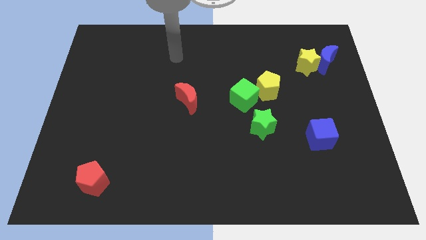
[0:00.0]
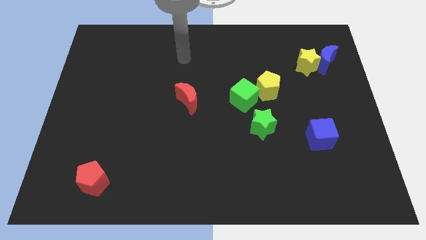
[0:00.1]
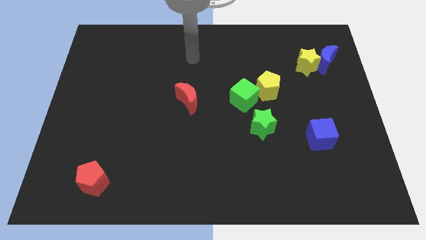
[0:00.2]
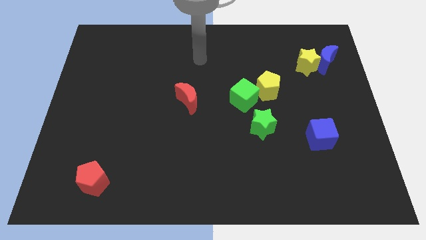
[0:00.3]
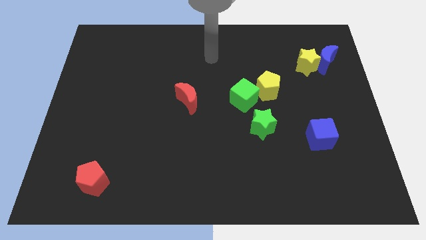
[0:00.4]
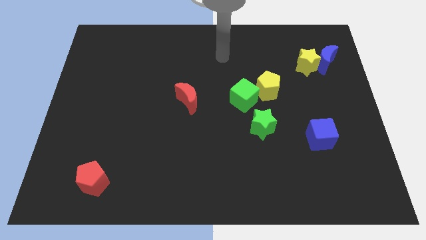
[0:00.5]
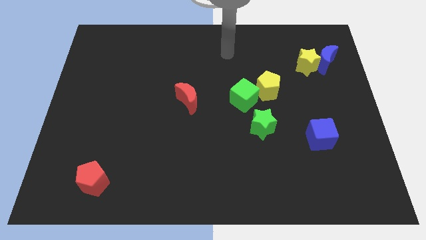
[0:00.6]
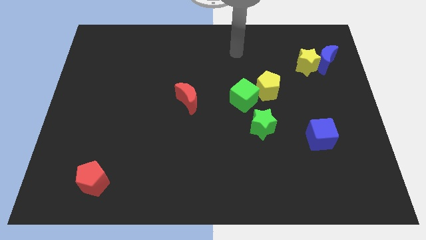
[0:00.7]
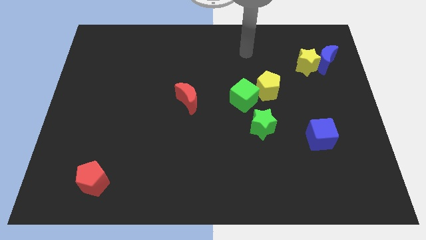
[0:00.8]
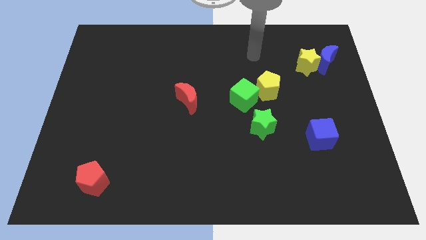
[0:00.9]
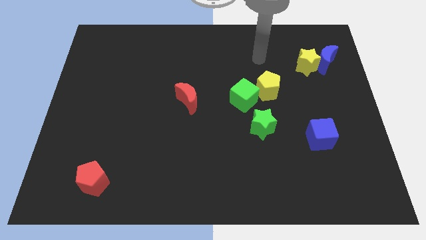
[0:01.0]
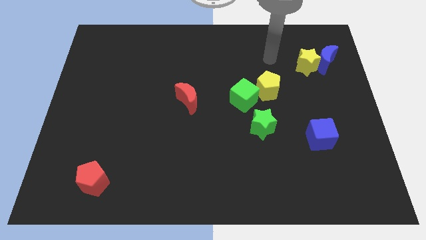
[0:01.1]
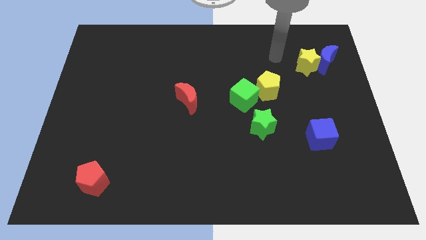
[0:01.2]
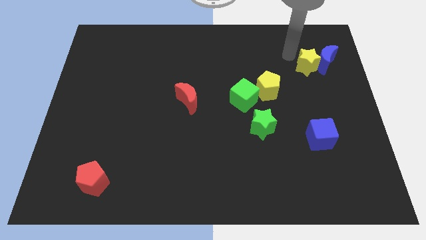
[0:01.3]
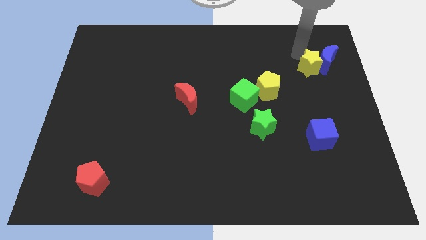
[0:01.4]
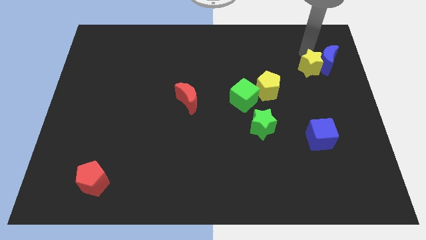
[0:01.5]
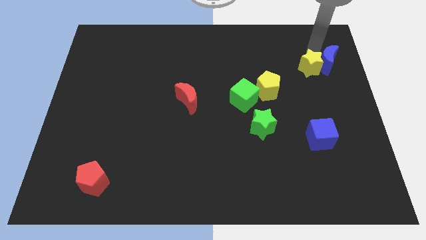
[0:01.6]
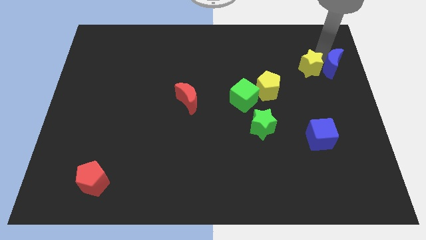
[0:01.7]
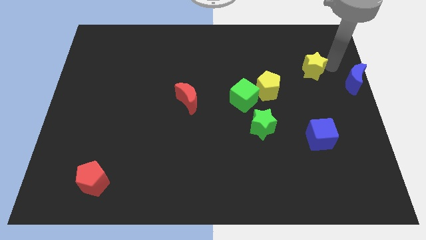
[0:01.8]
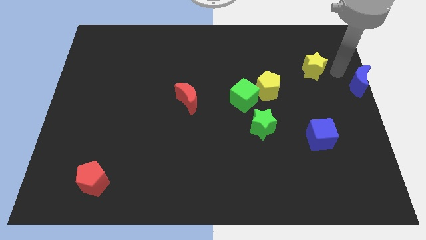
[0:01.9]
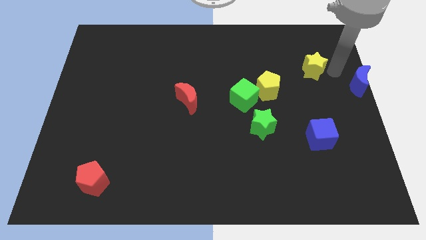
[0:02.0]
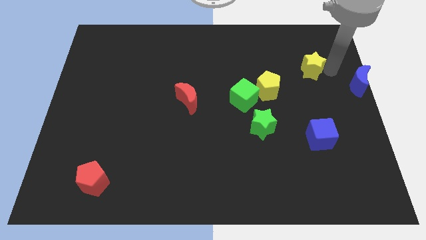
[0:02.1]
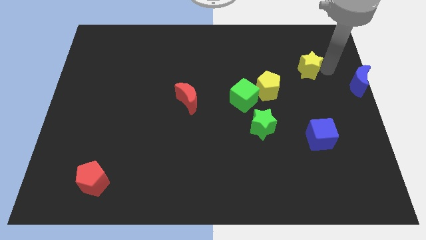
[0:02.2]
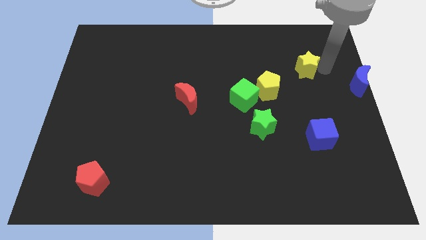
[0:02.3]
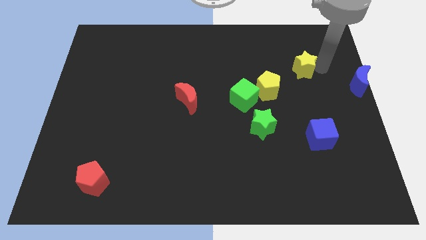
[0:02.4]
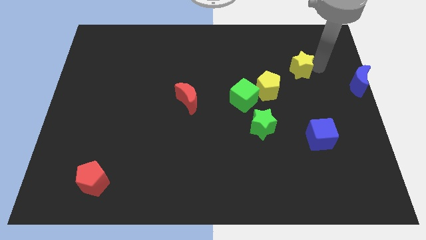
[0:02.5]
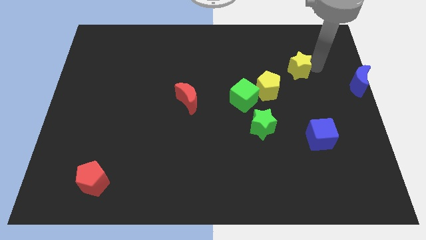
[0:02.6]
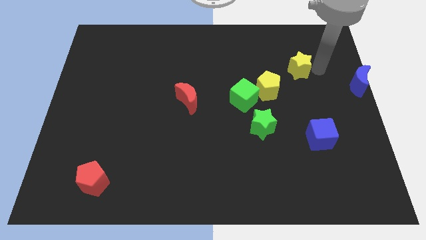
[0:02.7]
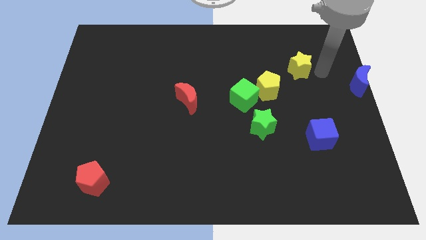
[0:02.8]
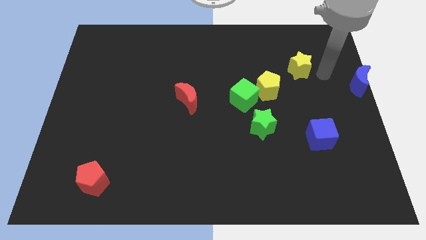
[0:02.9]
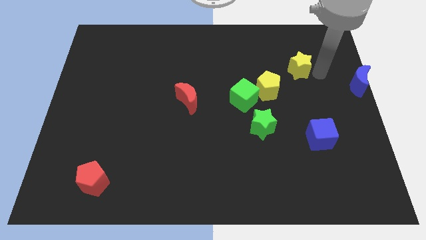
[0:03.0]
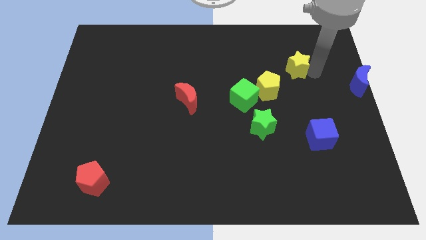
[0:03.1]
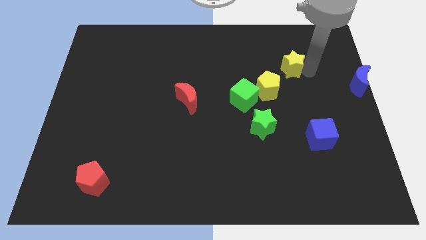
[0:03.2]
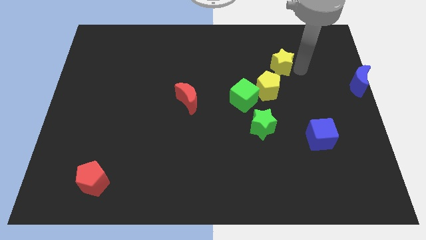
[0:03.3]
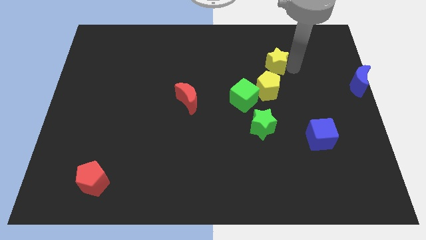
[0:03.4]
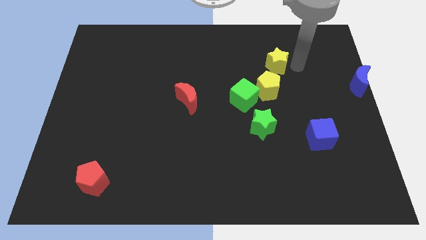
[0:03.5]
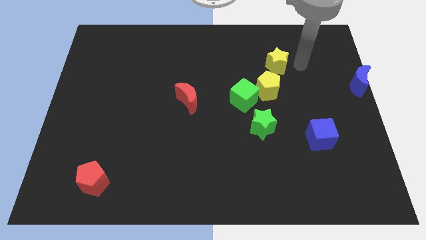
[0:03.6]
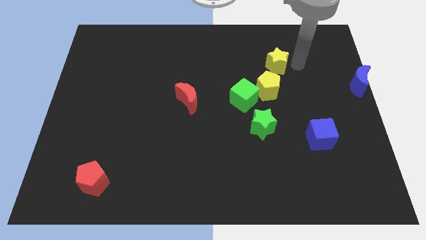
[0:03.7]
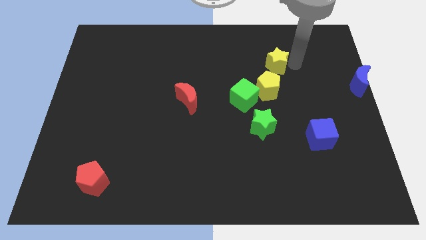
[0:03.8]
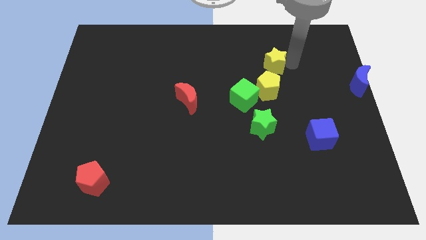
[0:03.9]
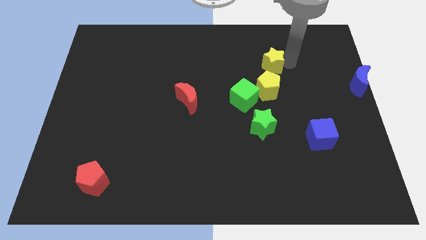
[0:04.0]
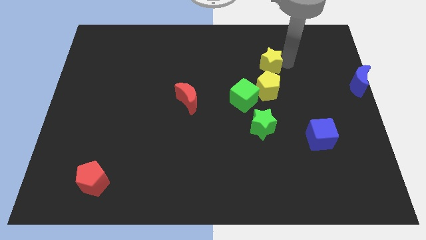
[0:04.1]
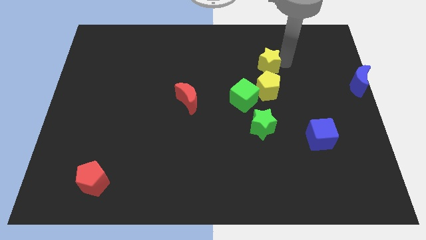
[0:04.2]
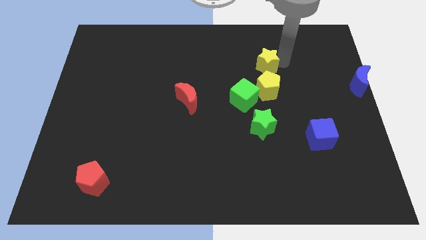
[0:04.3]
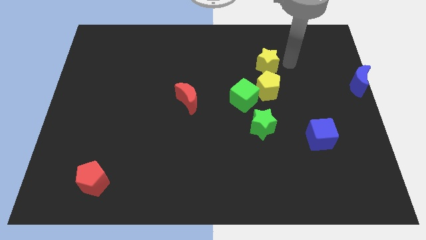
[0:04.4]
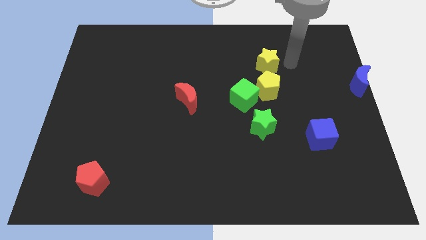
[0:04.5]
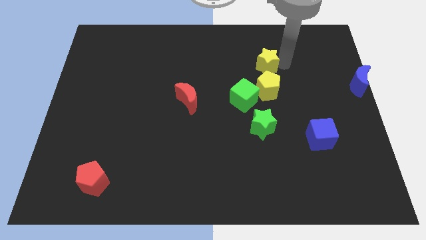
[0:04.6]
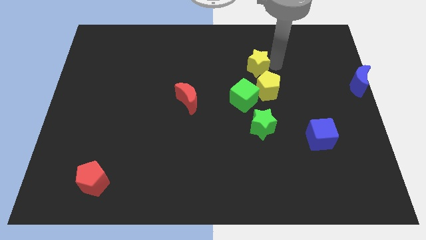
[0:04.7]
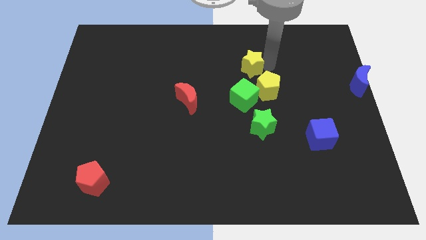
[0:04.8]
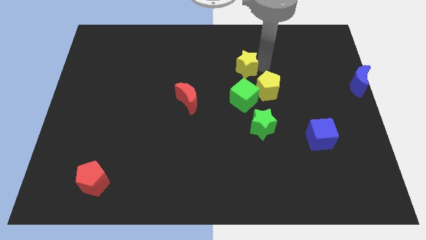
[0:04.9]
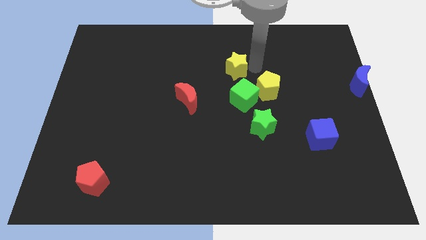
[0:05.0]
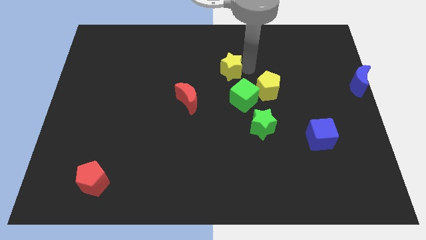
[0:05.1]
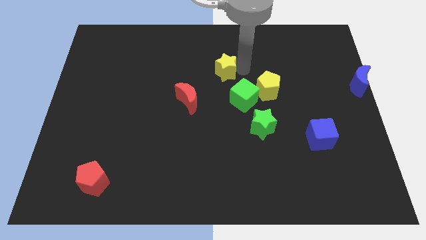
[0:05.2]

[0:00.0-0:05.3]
slide the yellow star left

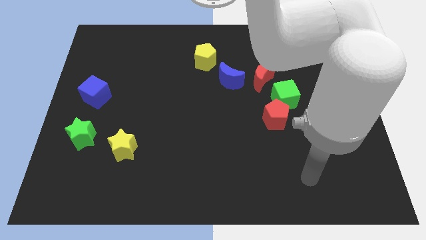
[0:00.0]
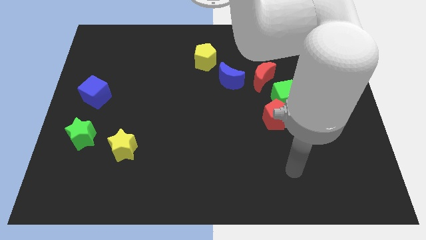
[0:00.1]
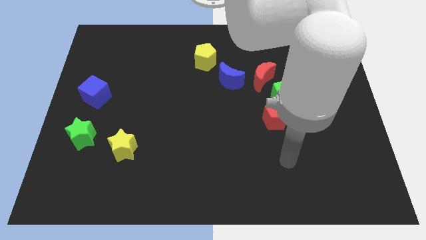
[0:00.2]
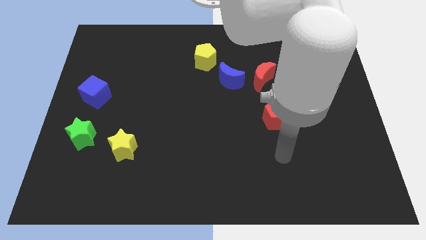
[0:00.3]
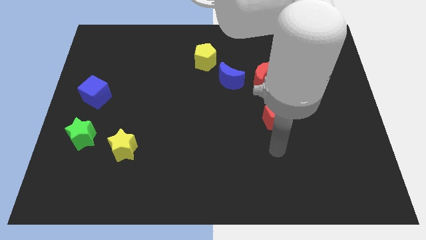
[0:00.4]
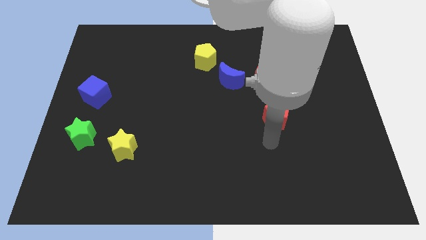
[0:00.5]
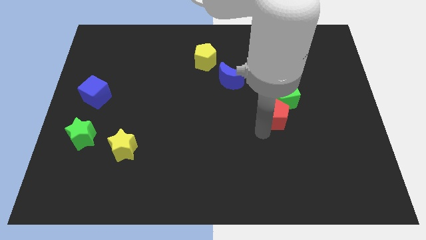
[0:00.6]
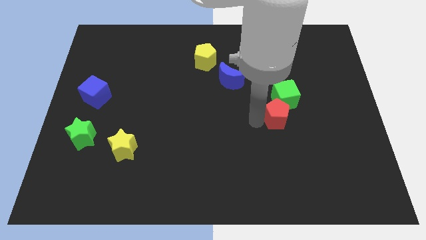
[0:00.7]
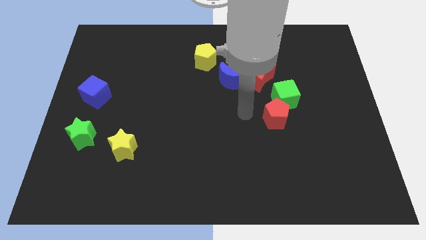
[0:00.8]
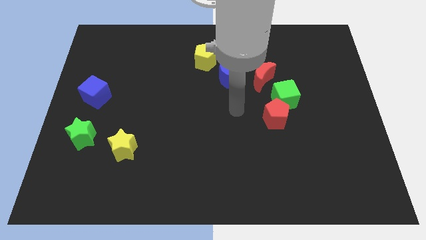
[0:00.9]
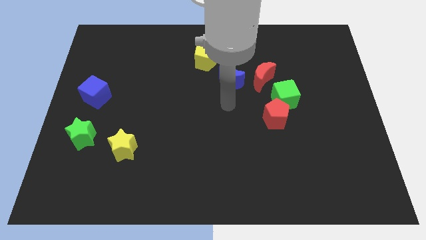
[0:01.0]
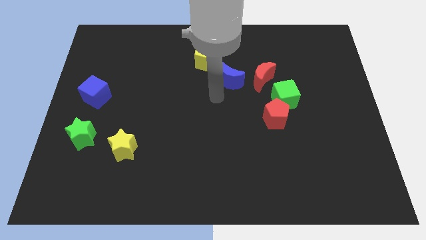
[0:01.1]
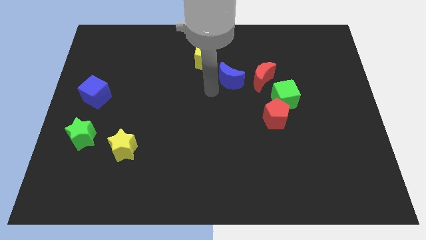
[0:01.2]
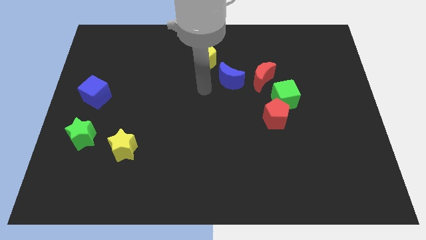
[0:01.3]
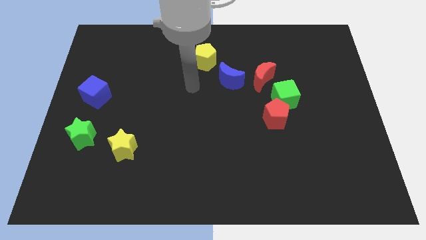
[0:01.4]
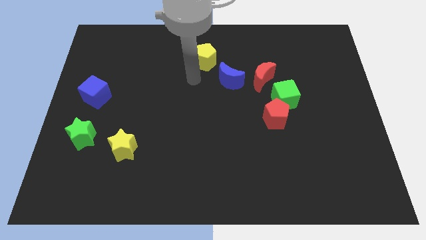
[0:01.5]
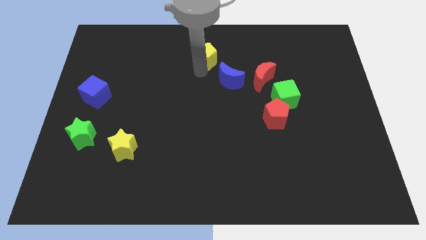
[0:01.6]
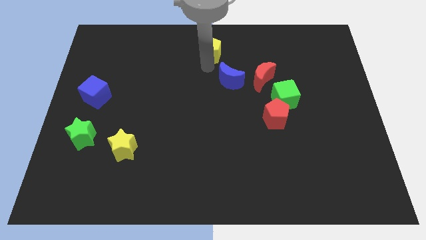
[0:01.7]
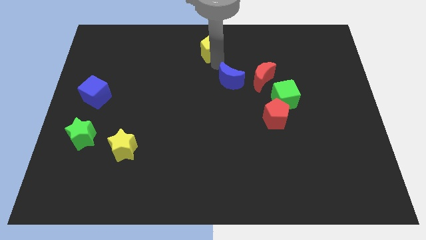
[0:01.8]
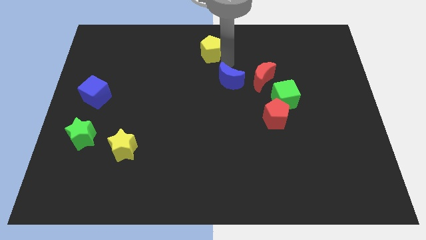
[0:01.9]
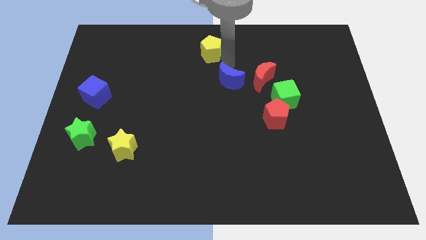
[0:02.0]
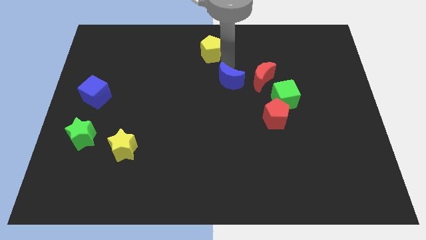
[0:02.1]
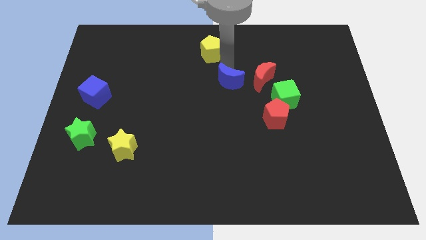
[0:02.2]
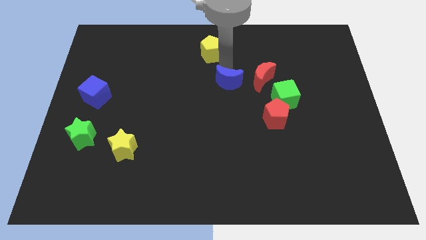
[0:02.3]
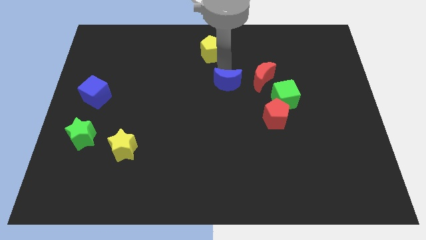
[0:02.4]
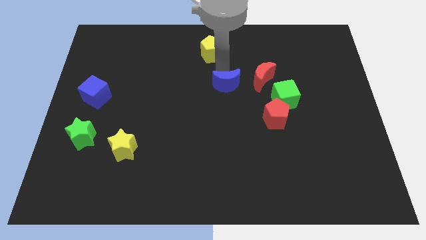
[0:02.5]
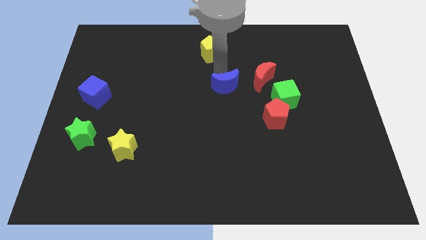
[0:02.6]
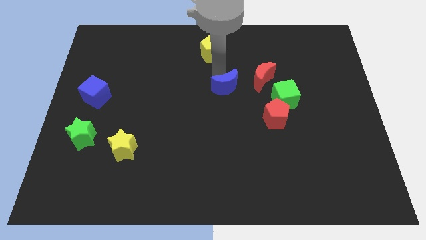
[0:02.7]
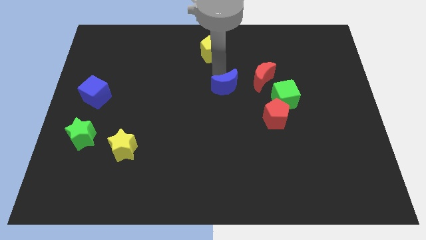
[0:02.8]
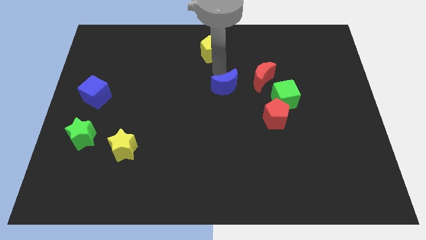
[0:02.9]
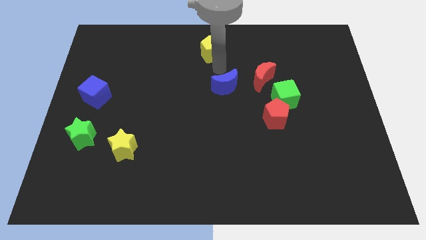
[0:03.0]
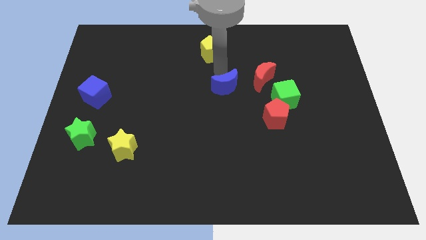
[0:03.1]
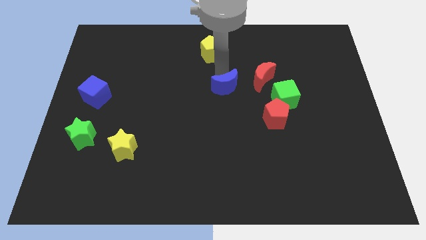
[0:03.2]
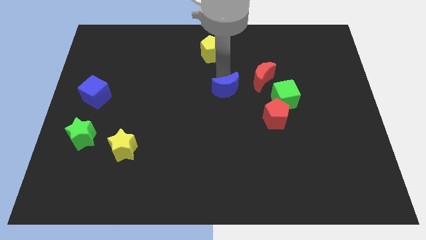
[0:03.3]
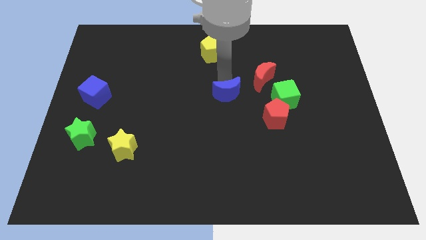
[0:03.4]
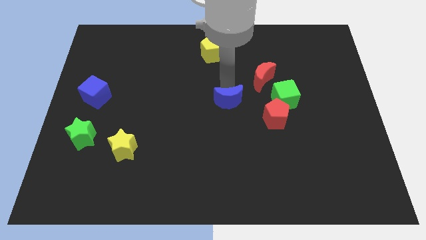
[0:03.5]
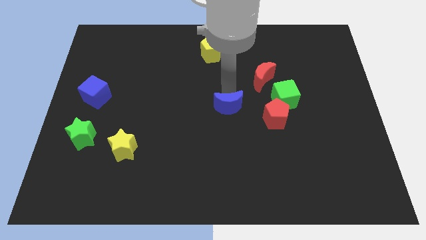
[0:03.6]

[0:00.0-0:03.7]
slide the blue moon a little bit downwards
